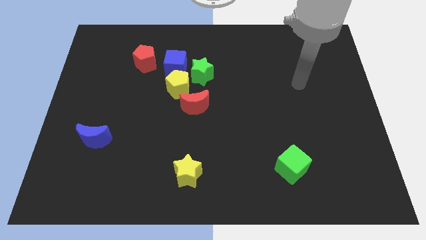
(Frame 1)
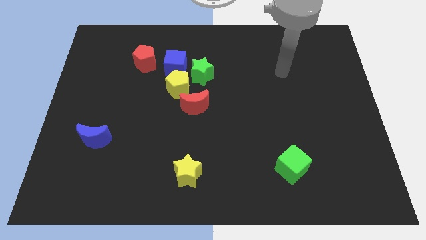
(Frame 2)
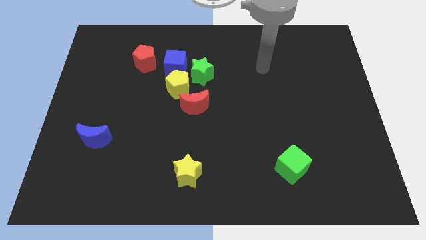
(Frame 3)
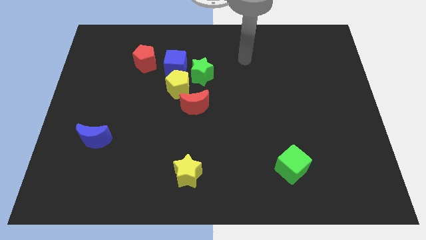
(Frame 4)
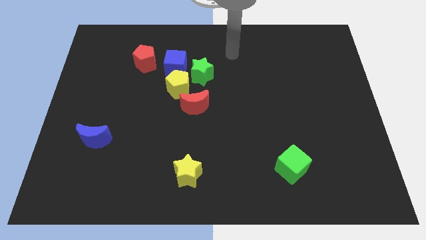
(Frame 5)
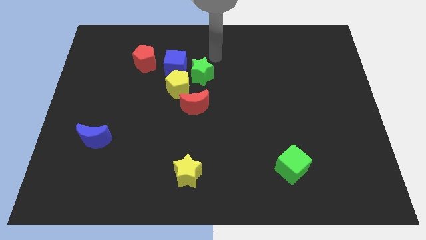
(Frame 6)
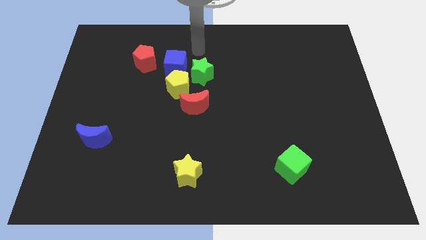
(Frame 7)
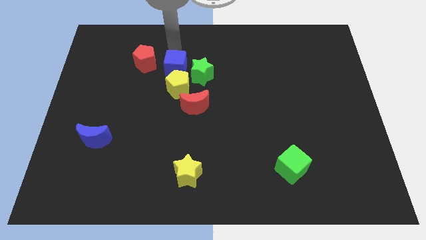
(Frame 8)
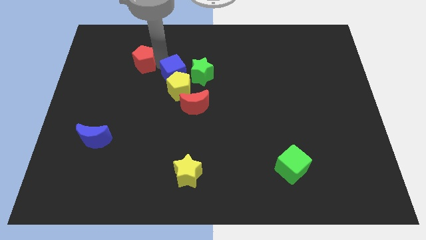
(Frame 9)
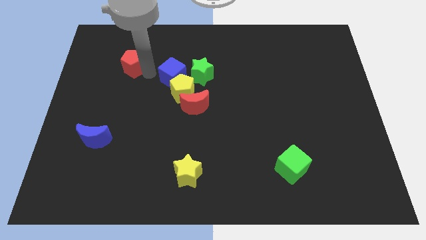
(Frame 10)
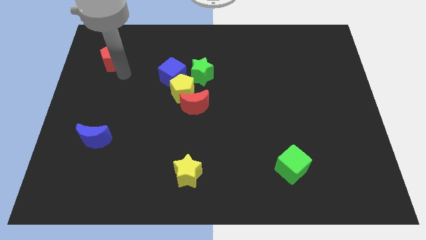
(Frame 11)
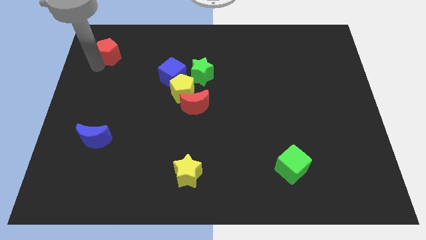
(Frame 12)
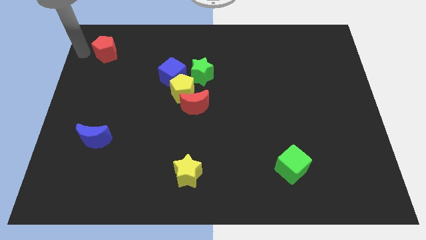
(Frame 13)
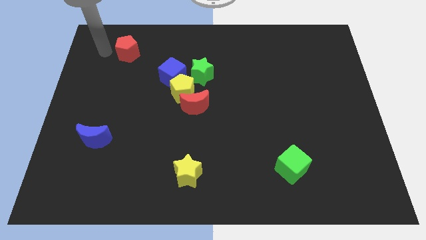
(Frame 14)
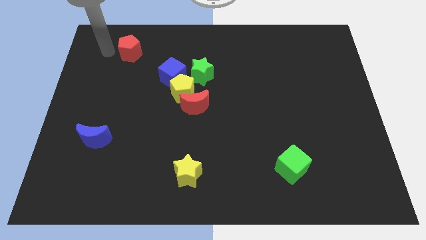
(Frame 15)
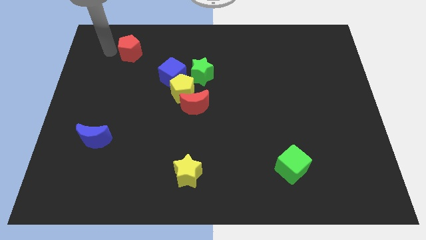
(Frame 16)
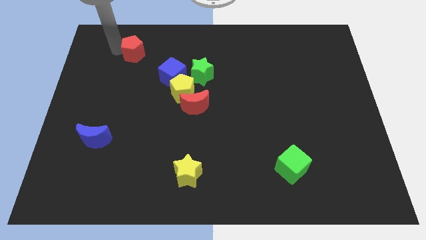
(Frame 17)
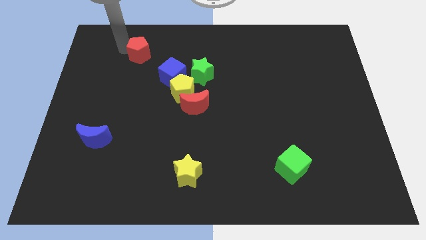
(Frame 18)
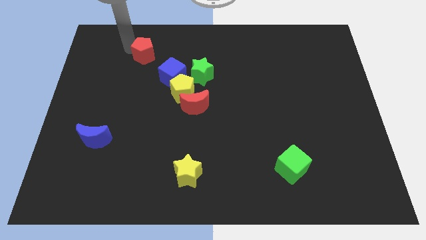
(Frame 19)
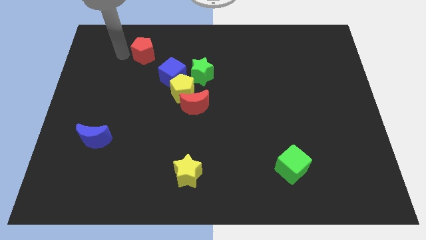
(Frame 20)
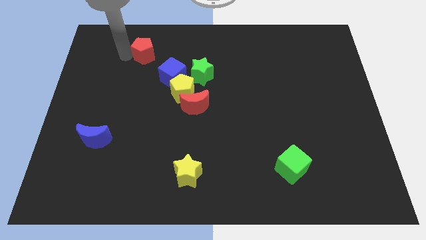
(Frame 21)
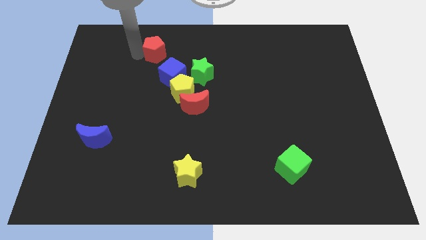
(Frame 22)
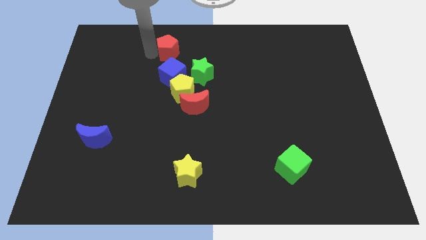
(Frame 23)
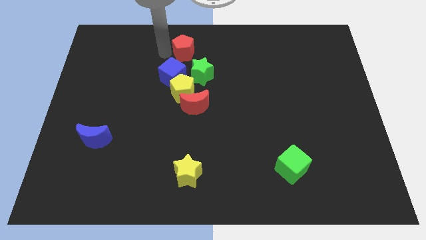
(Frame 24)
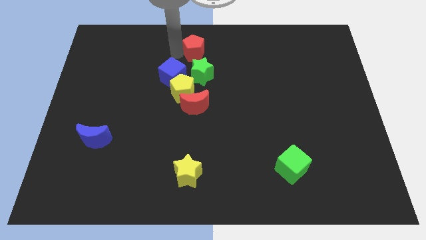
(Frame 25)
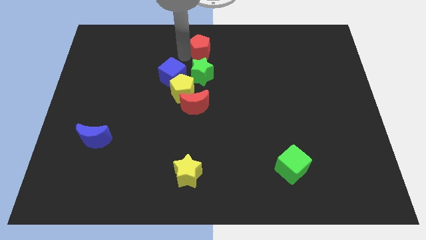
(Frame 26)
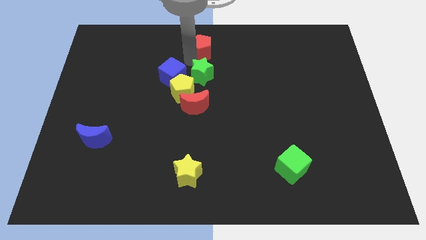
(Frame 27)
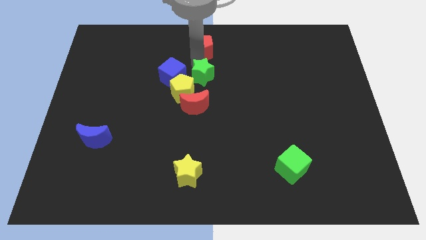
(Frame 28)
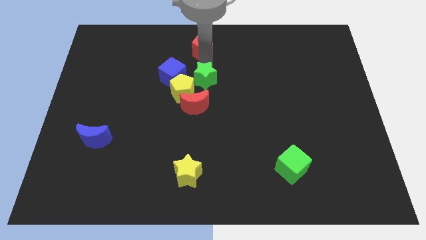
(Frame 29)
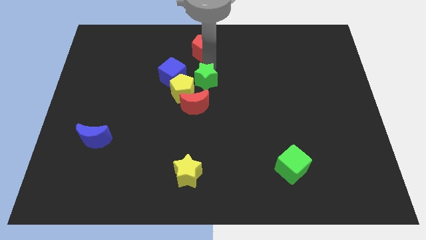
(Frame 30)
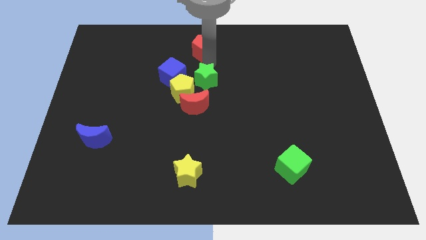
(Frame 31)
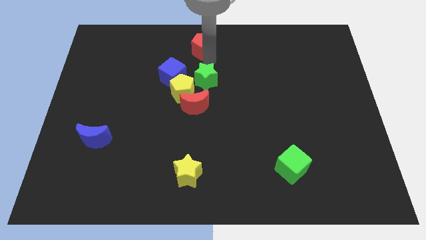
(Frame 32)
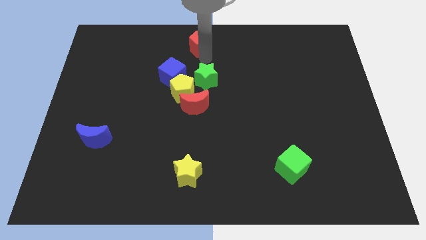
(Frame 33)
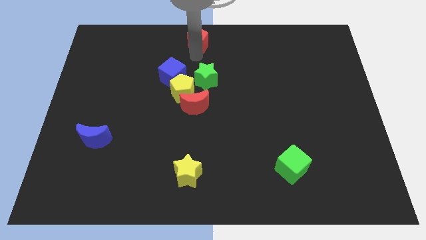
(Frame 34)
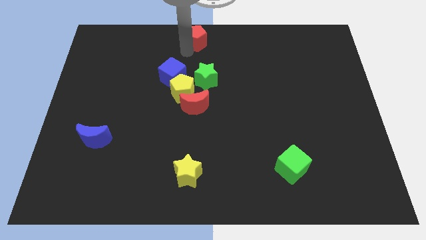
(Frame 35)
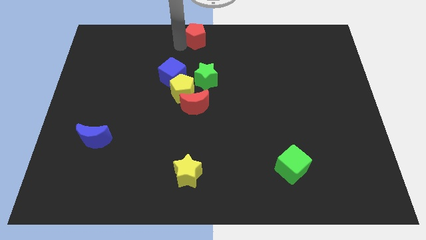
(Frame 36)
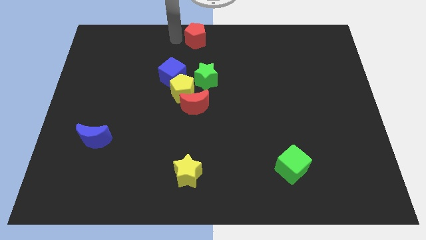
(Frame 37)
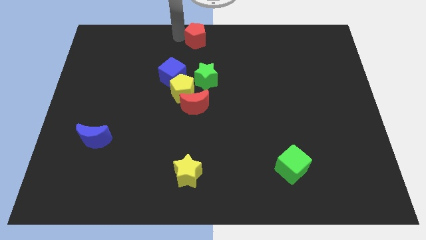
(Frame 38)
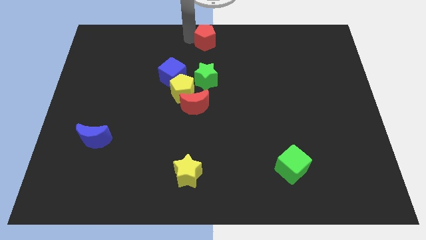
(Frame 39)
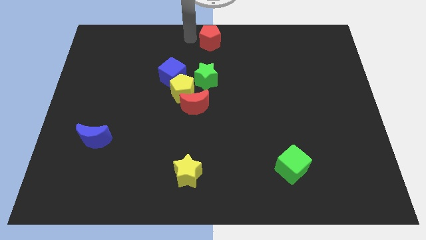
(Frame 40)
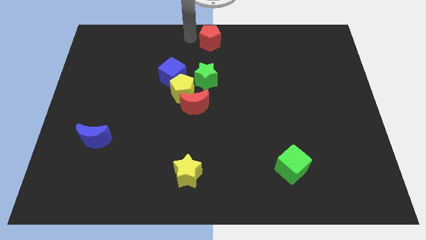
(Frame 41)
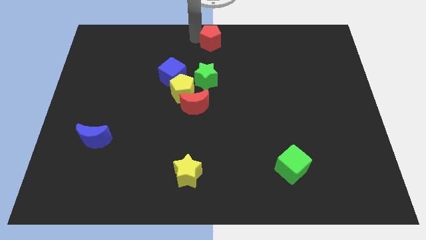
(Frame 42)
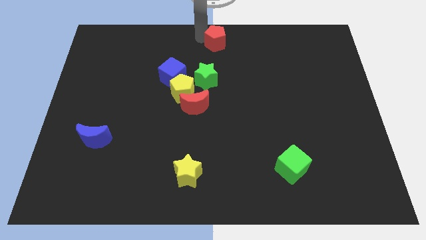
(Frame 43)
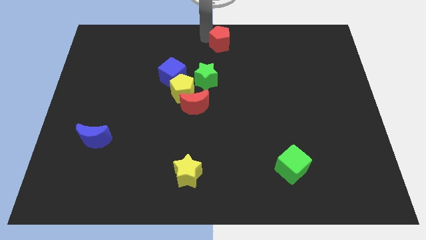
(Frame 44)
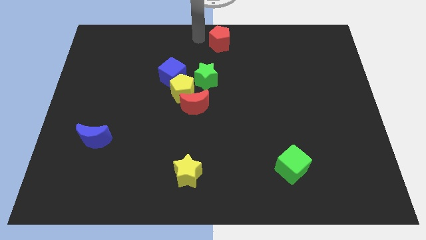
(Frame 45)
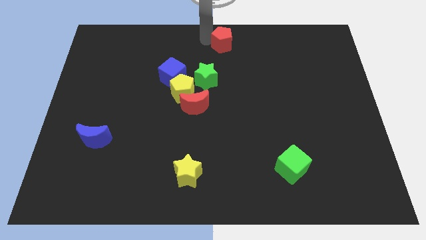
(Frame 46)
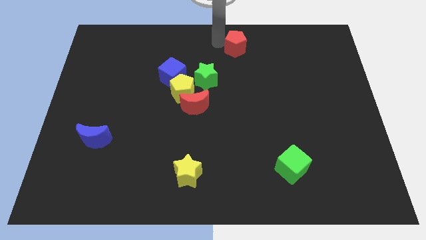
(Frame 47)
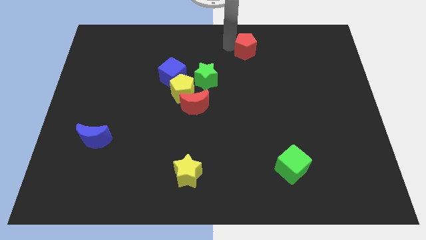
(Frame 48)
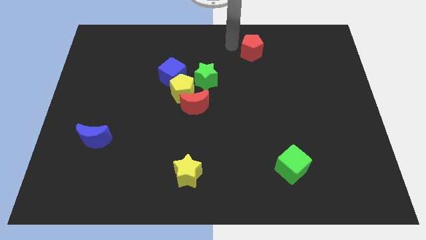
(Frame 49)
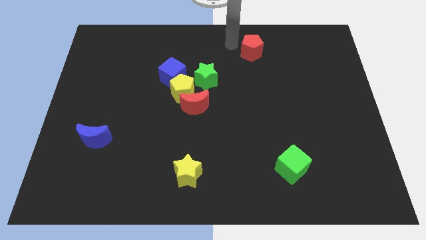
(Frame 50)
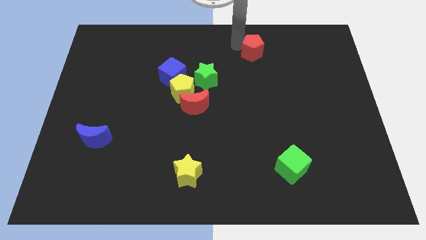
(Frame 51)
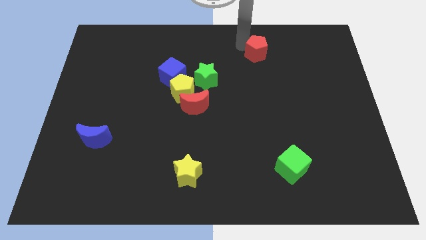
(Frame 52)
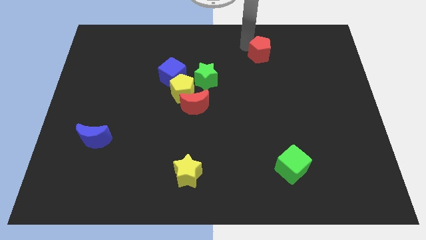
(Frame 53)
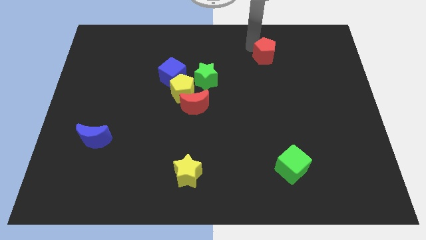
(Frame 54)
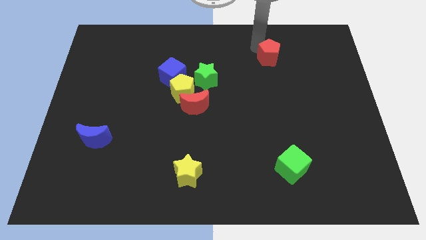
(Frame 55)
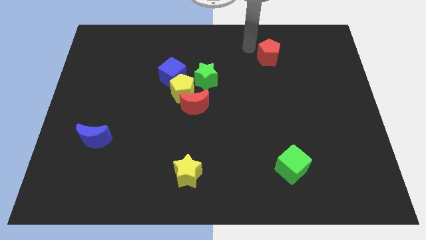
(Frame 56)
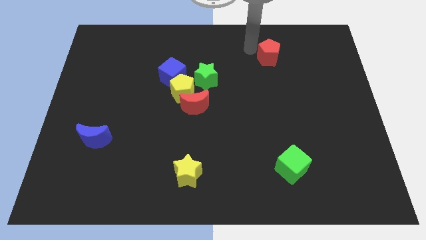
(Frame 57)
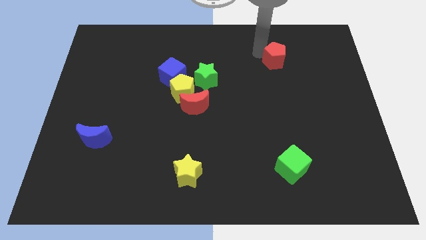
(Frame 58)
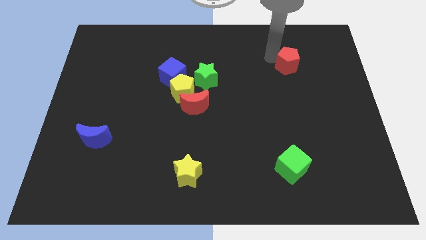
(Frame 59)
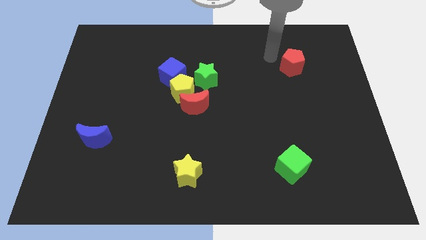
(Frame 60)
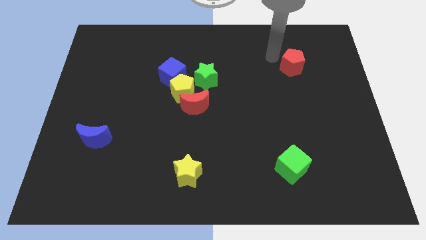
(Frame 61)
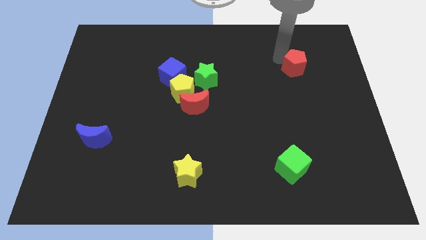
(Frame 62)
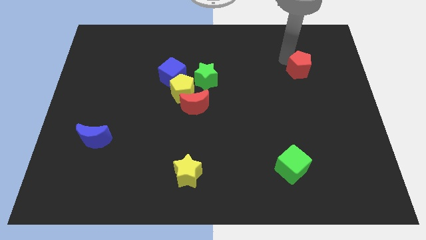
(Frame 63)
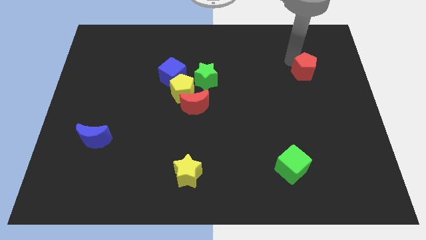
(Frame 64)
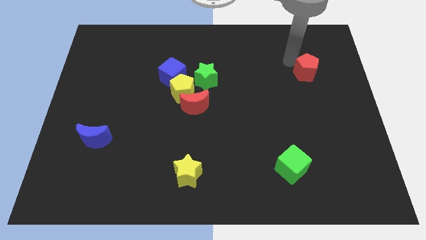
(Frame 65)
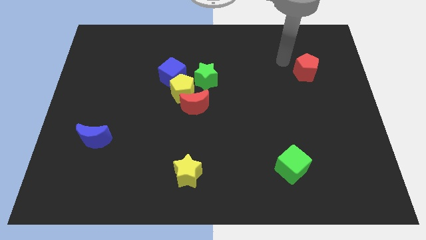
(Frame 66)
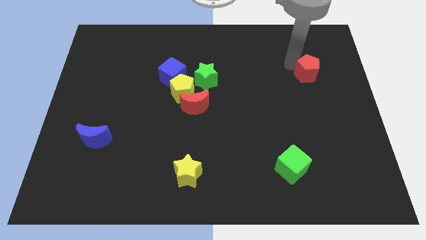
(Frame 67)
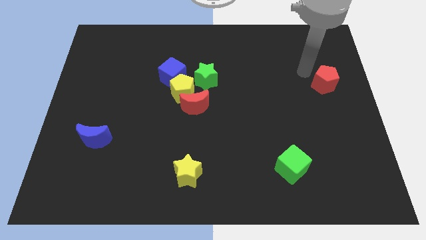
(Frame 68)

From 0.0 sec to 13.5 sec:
move the red pentagon to the center right

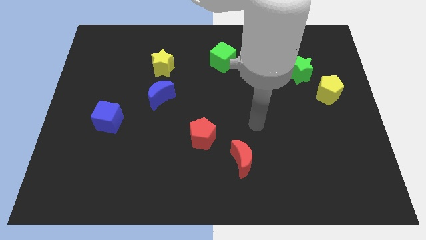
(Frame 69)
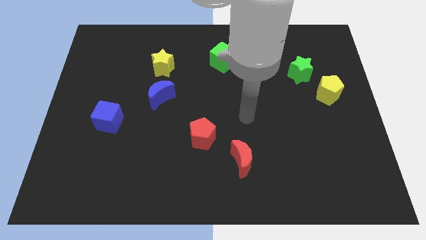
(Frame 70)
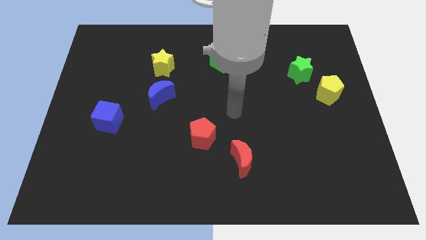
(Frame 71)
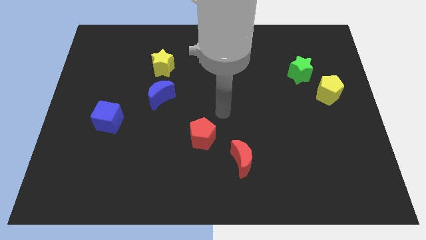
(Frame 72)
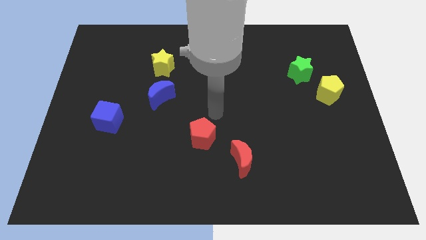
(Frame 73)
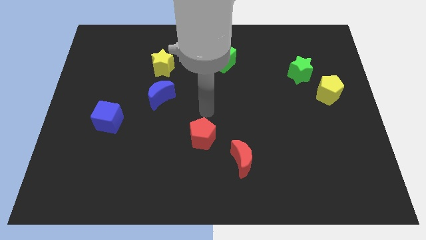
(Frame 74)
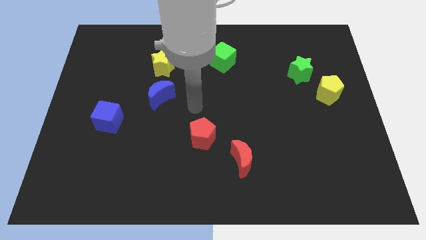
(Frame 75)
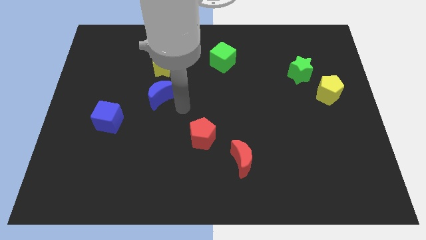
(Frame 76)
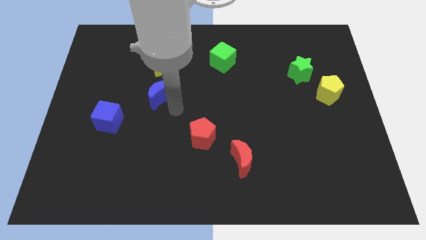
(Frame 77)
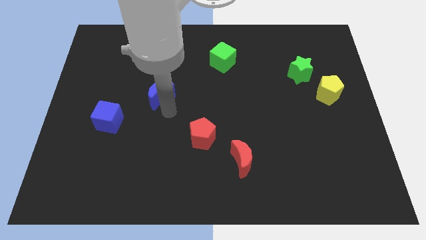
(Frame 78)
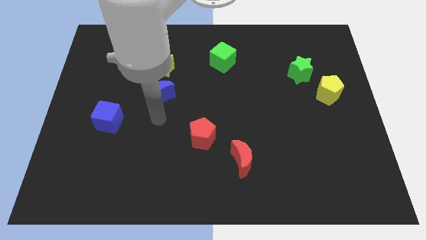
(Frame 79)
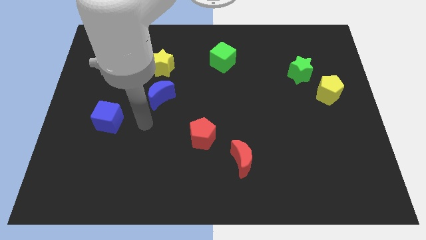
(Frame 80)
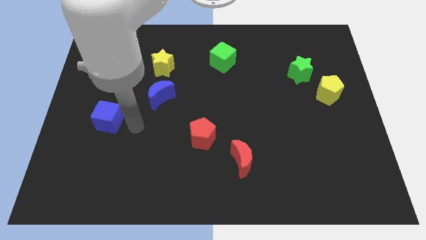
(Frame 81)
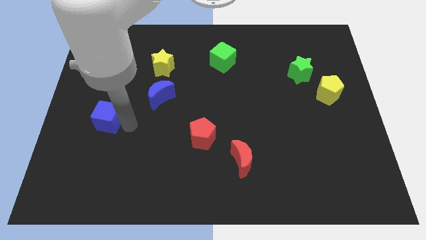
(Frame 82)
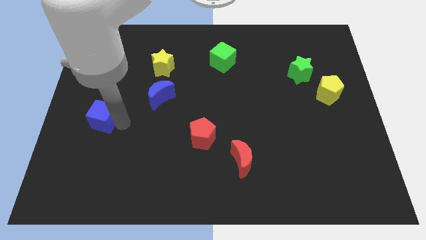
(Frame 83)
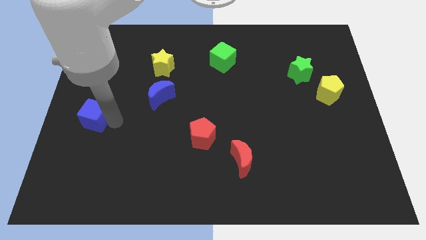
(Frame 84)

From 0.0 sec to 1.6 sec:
slide the blue cube to the left side of the board
